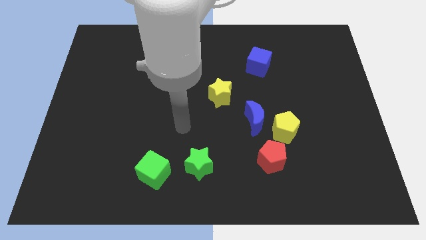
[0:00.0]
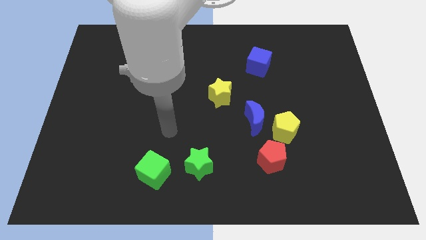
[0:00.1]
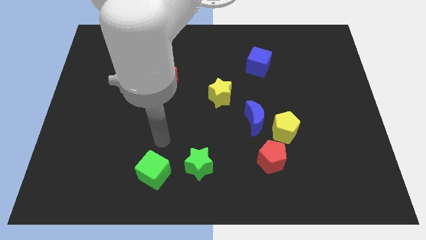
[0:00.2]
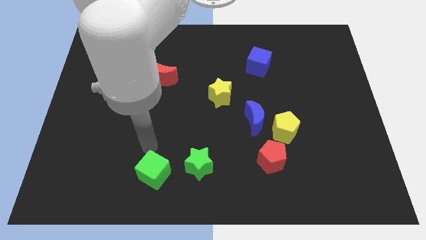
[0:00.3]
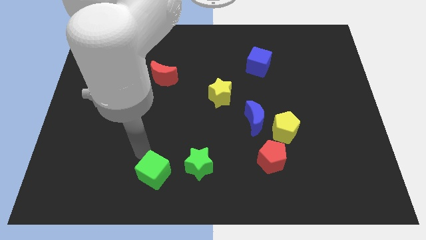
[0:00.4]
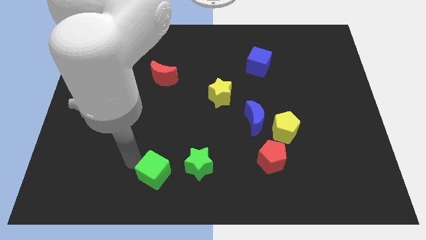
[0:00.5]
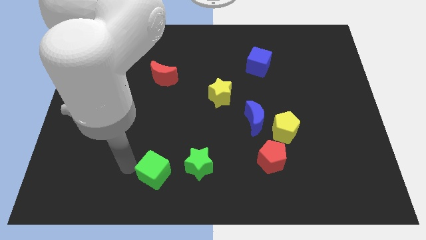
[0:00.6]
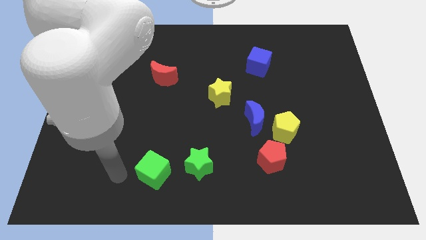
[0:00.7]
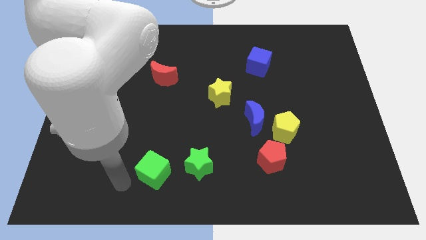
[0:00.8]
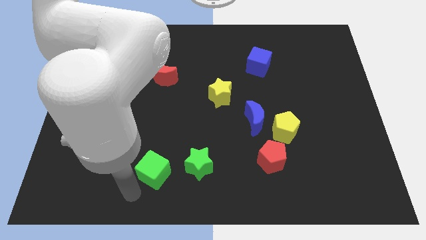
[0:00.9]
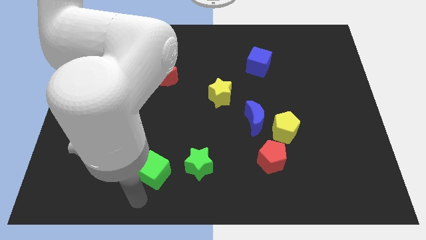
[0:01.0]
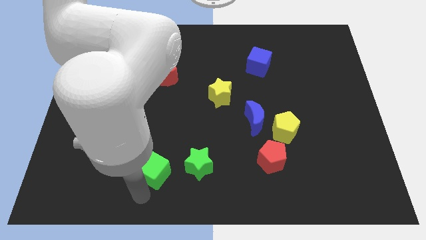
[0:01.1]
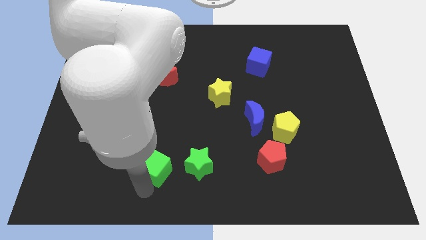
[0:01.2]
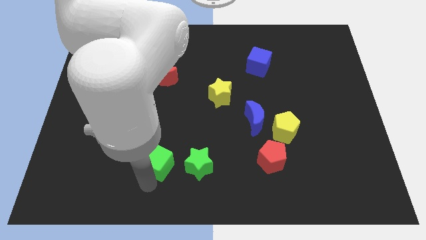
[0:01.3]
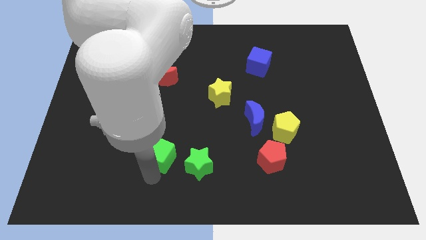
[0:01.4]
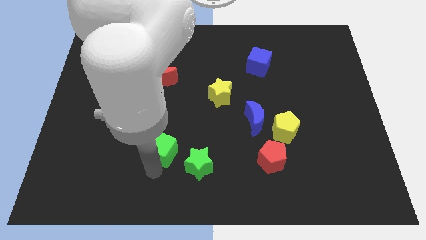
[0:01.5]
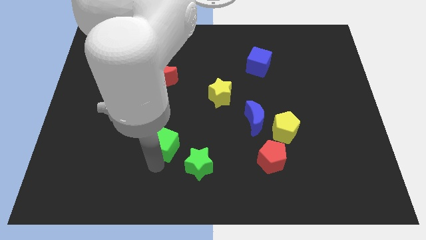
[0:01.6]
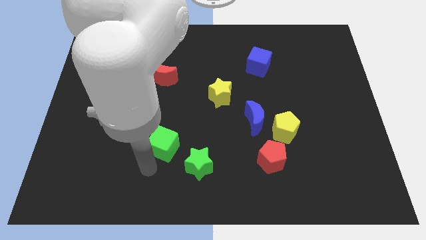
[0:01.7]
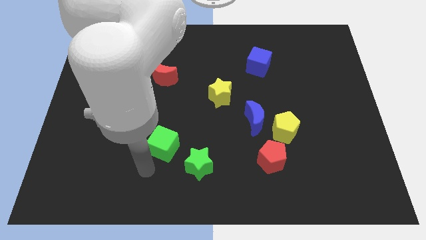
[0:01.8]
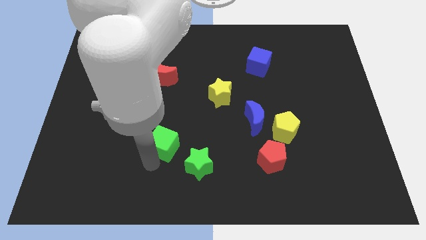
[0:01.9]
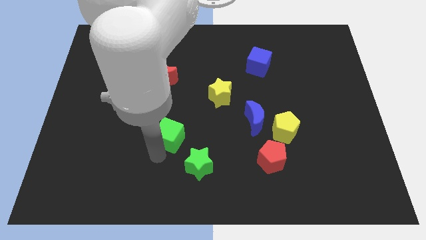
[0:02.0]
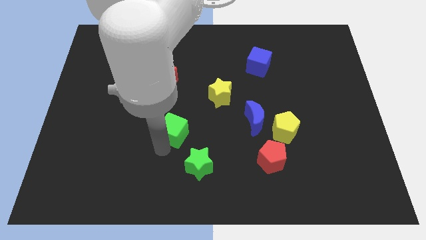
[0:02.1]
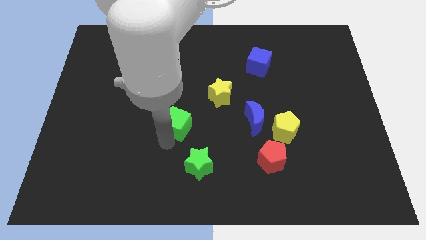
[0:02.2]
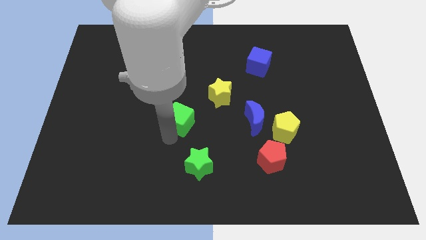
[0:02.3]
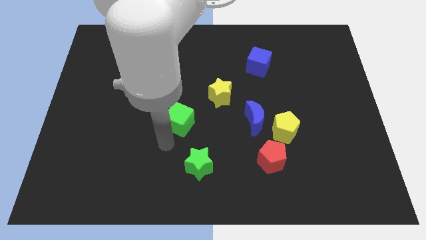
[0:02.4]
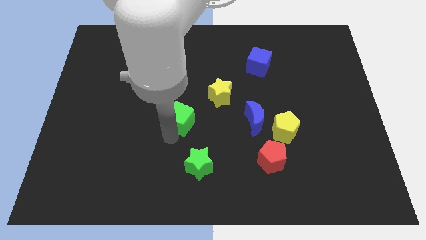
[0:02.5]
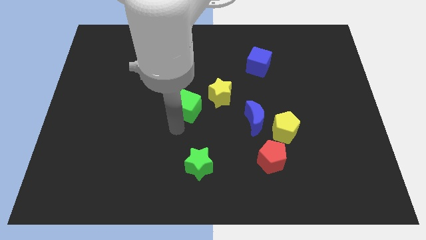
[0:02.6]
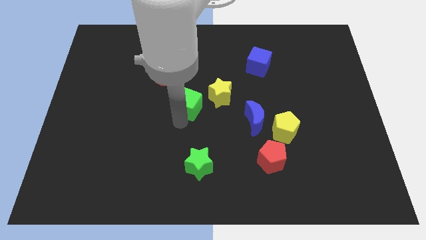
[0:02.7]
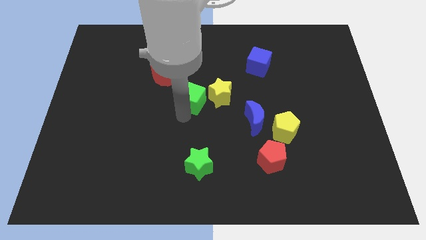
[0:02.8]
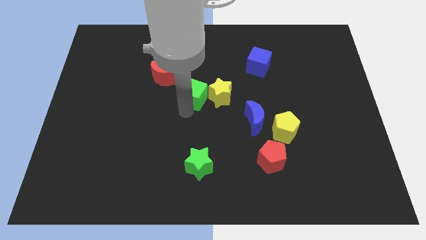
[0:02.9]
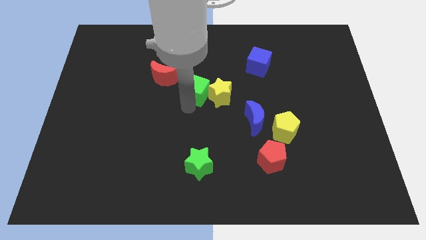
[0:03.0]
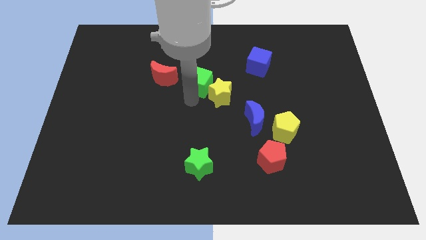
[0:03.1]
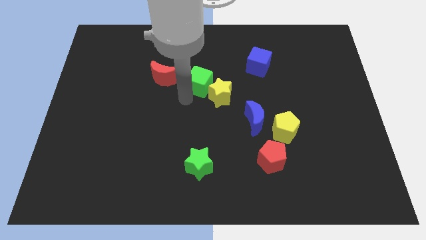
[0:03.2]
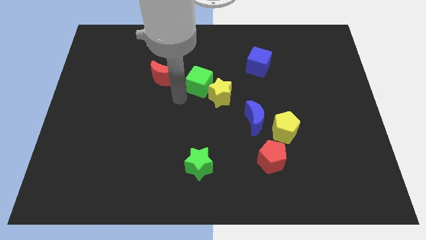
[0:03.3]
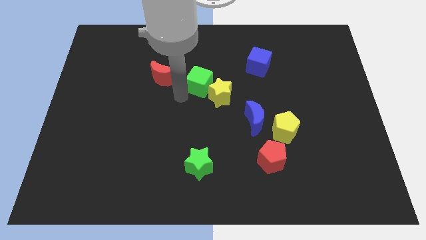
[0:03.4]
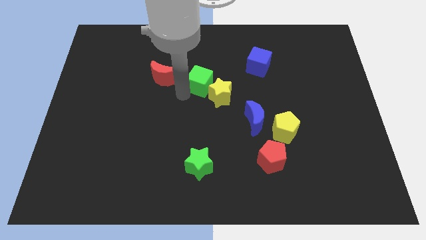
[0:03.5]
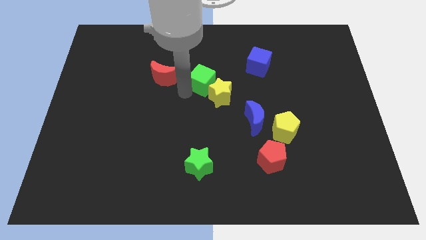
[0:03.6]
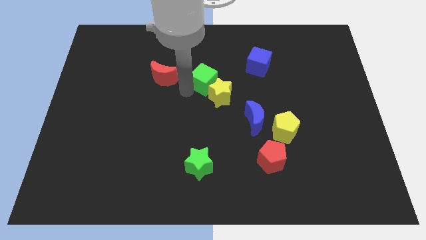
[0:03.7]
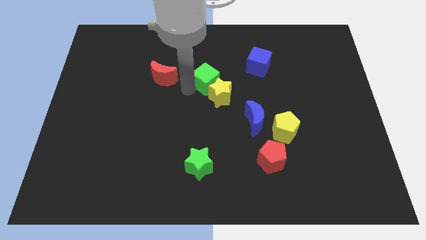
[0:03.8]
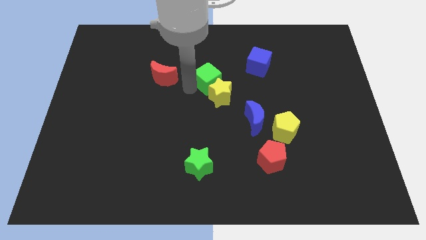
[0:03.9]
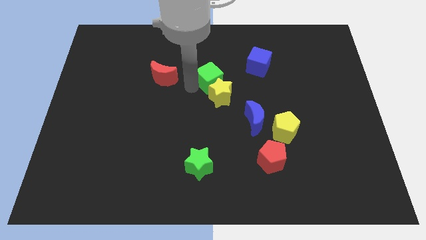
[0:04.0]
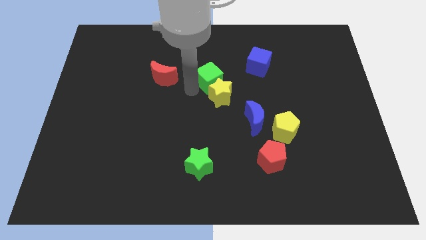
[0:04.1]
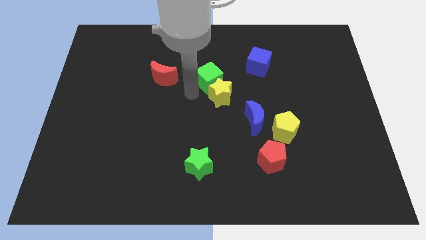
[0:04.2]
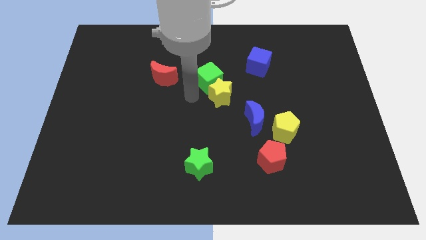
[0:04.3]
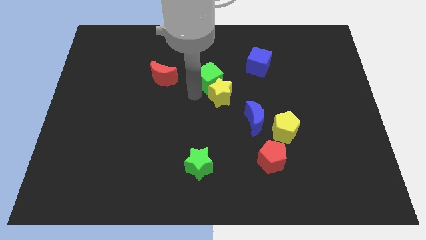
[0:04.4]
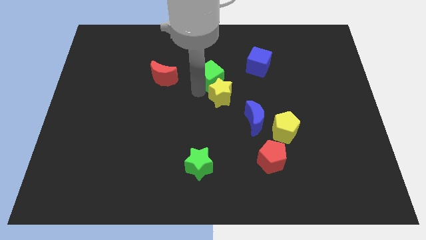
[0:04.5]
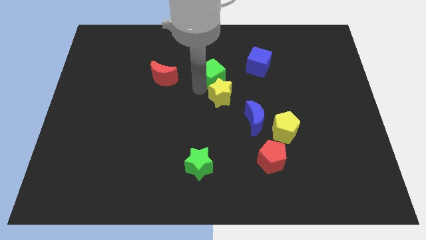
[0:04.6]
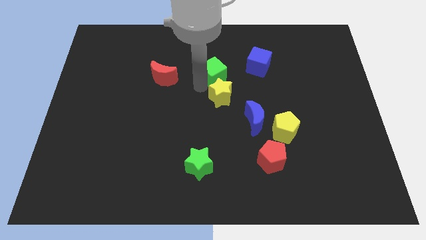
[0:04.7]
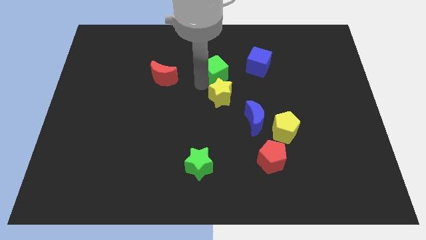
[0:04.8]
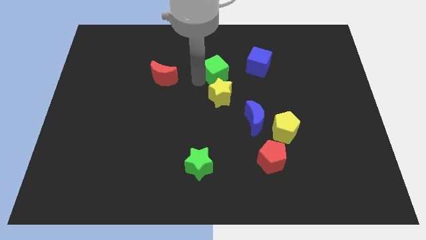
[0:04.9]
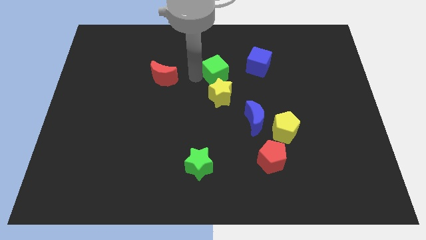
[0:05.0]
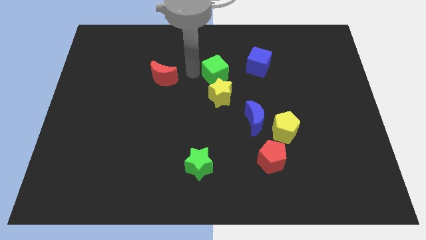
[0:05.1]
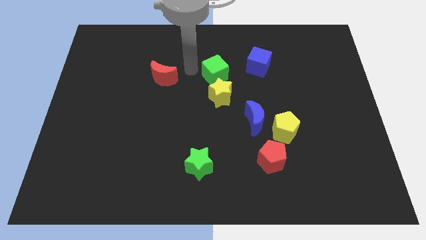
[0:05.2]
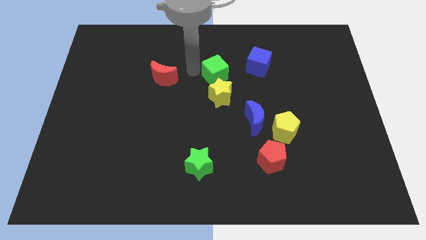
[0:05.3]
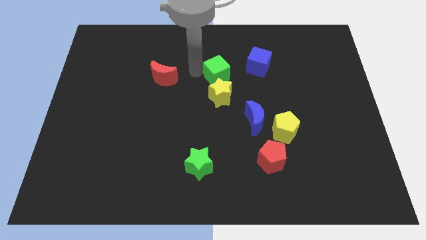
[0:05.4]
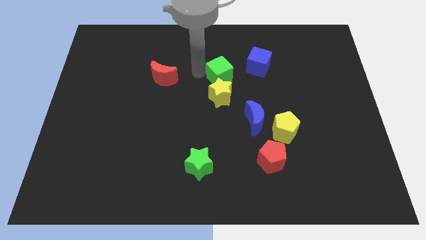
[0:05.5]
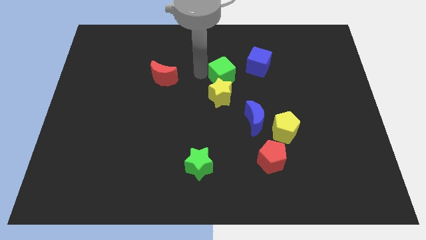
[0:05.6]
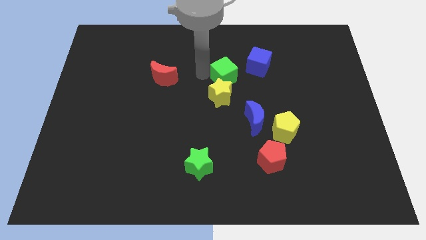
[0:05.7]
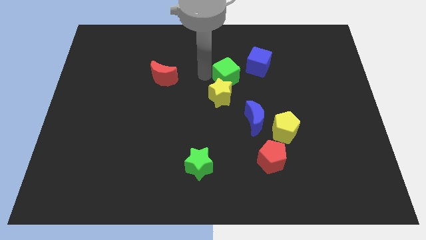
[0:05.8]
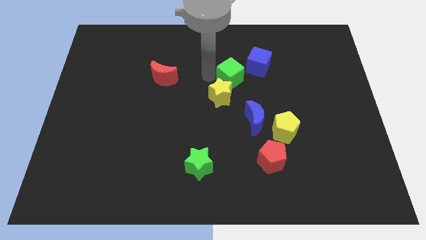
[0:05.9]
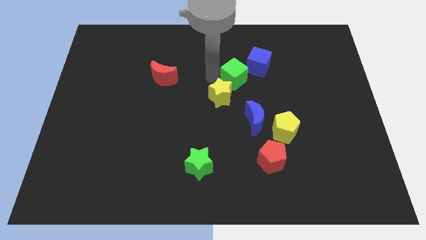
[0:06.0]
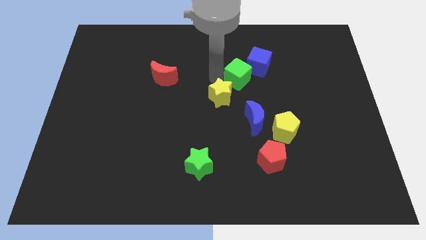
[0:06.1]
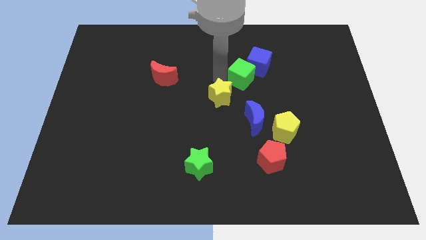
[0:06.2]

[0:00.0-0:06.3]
push the green cube to the bottom side of the blue cube

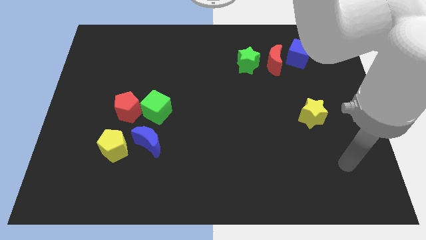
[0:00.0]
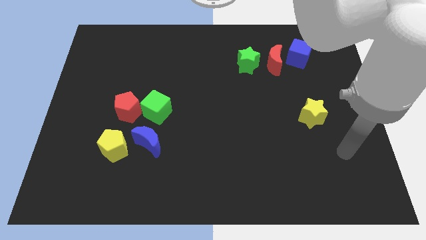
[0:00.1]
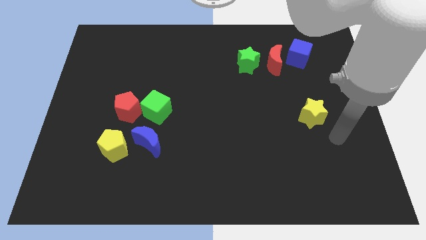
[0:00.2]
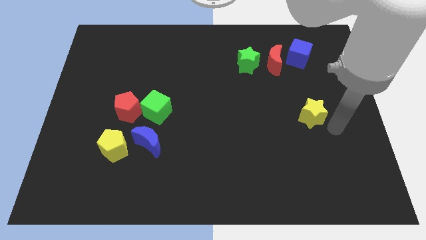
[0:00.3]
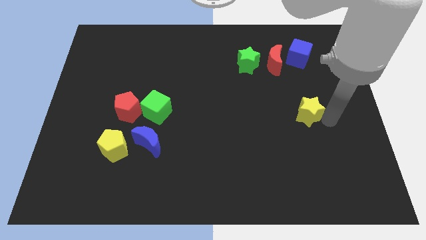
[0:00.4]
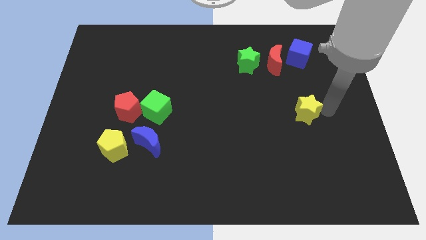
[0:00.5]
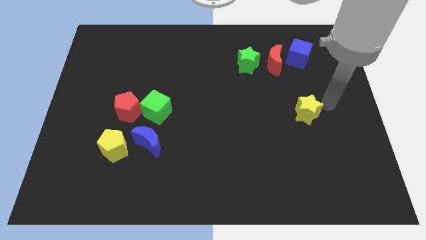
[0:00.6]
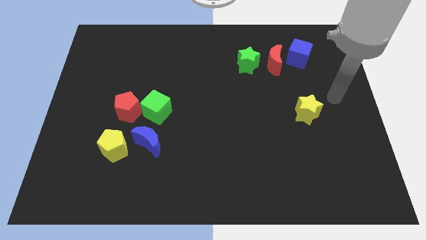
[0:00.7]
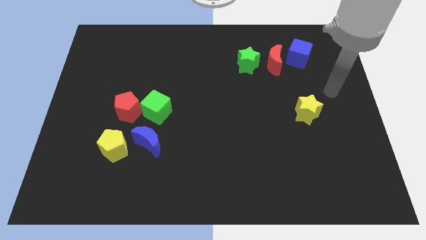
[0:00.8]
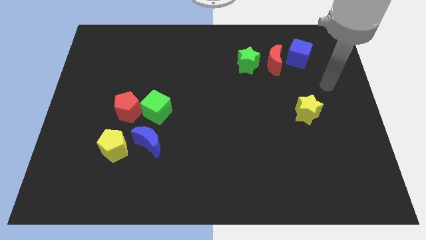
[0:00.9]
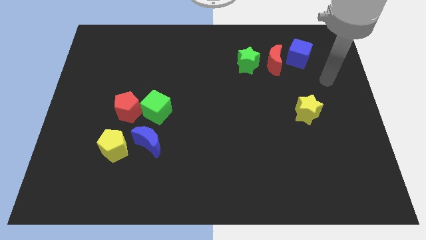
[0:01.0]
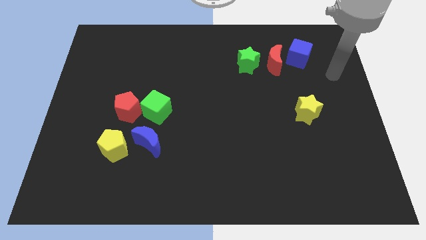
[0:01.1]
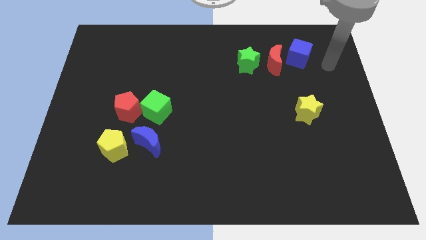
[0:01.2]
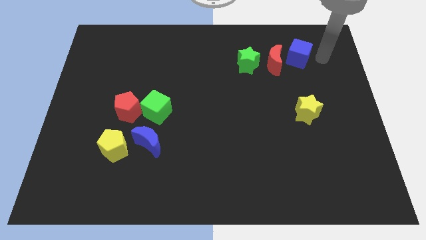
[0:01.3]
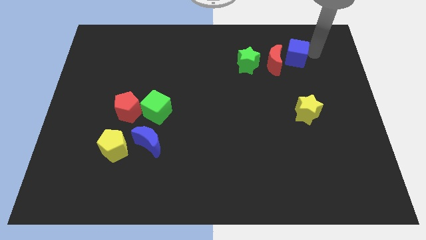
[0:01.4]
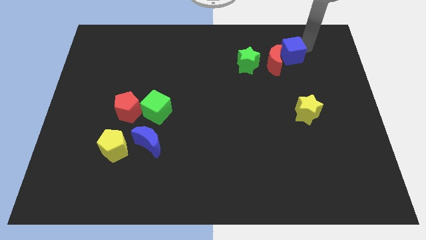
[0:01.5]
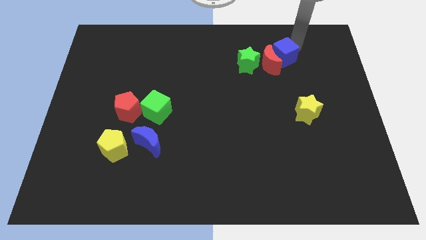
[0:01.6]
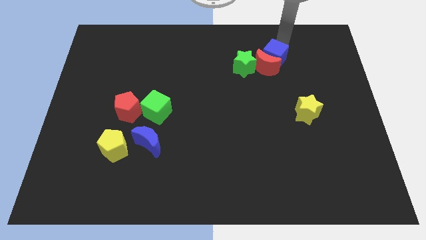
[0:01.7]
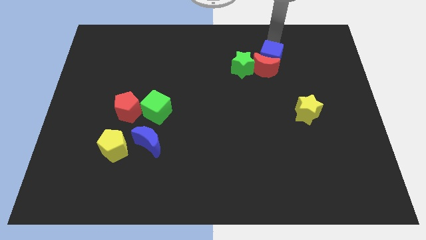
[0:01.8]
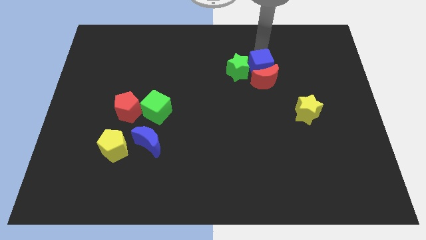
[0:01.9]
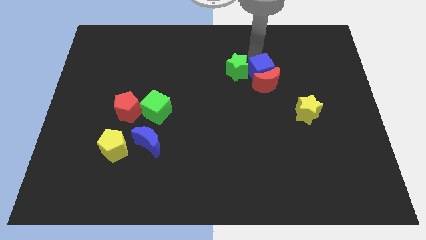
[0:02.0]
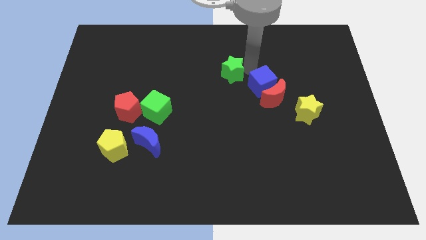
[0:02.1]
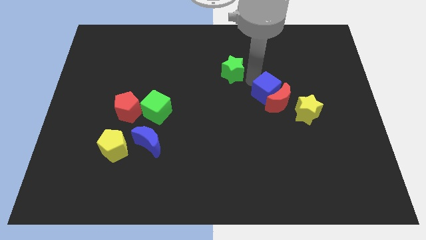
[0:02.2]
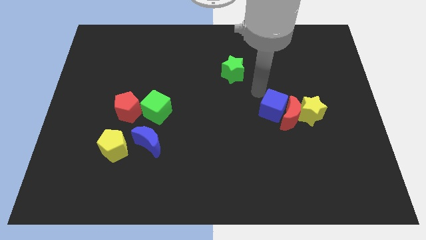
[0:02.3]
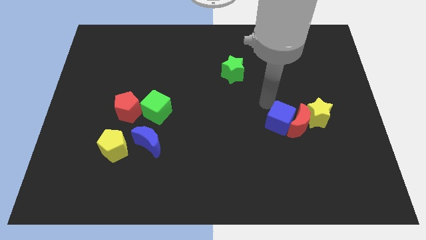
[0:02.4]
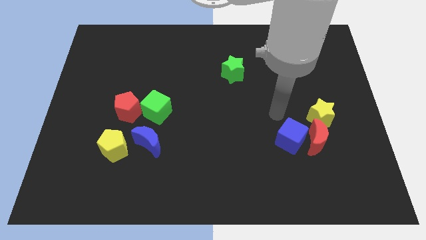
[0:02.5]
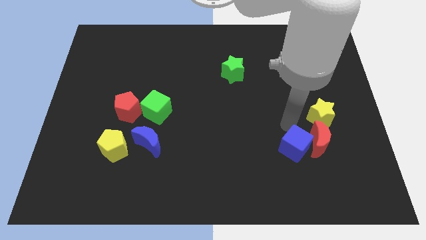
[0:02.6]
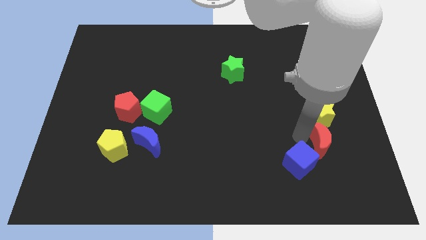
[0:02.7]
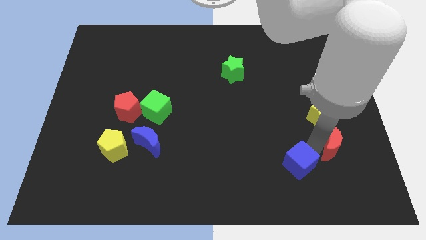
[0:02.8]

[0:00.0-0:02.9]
move the red moon to the bottom right of the yellow star
